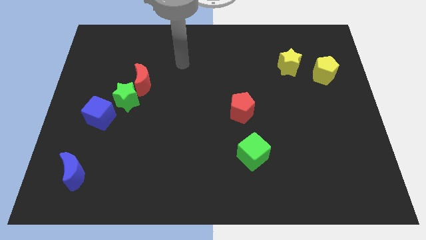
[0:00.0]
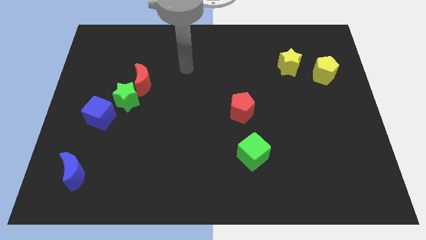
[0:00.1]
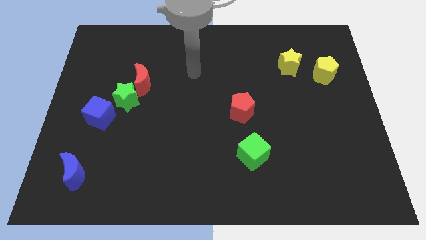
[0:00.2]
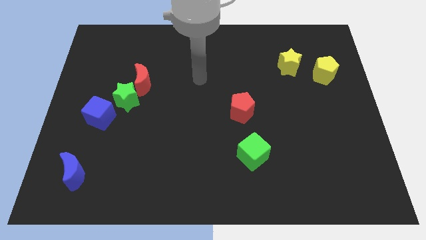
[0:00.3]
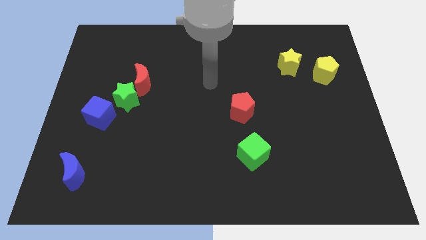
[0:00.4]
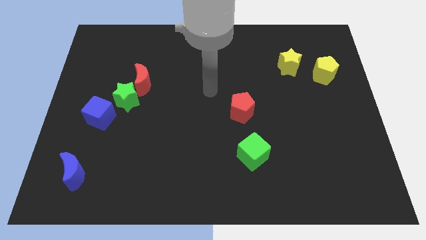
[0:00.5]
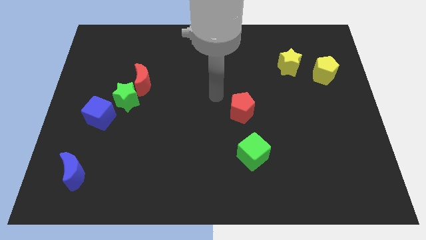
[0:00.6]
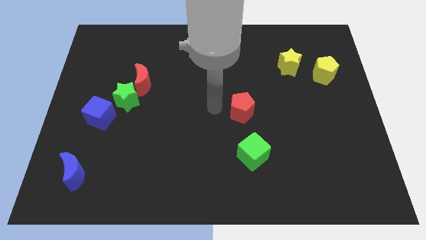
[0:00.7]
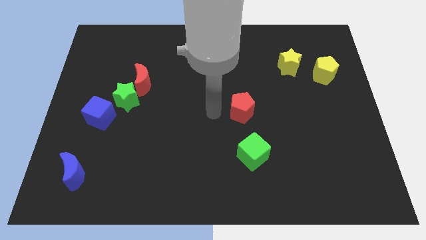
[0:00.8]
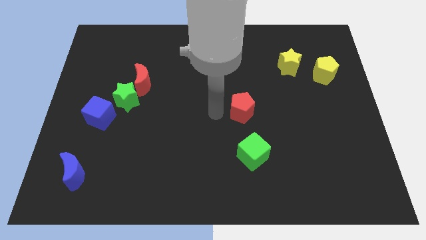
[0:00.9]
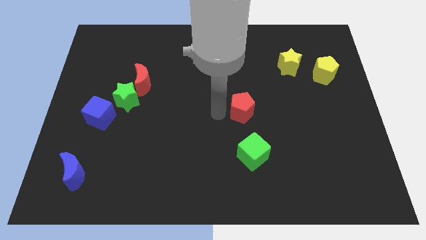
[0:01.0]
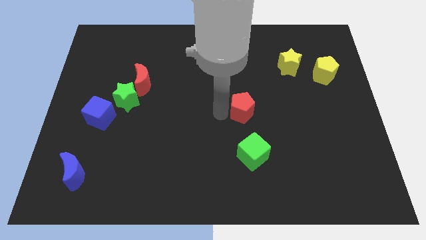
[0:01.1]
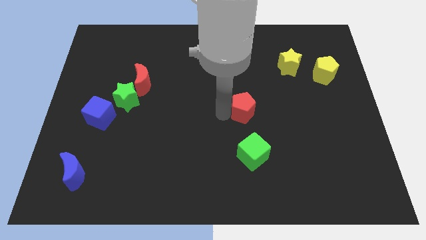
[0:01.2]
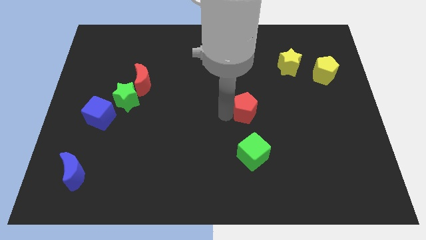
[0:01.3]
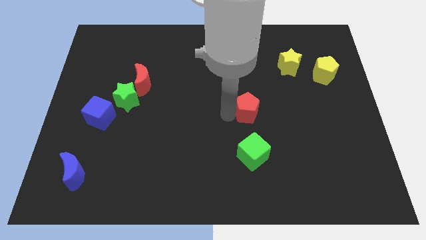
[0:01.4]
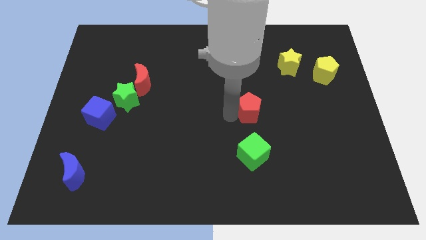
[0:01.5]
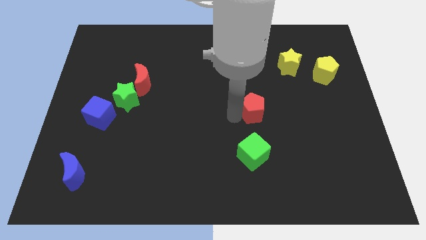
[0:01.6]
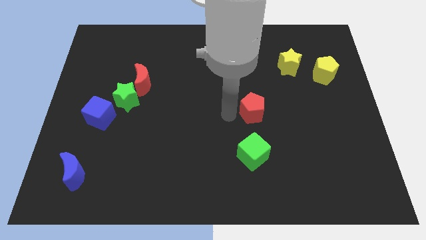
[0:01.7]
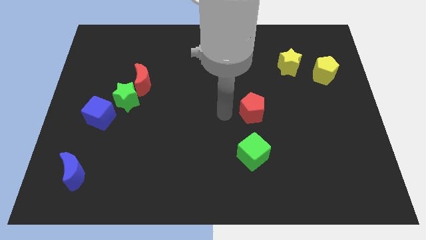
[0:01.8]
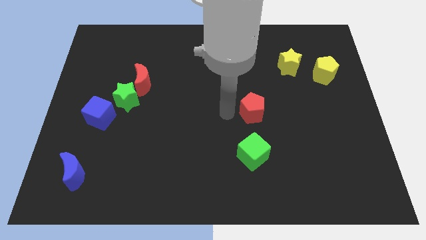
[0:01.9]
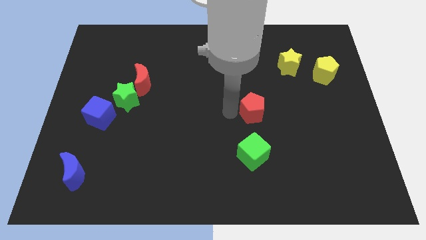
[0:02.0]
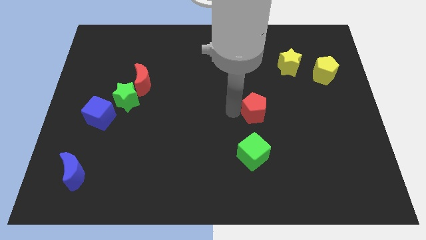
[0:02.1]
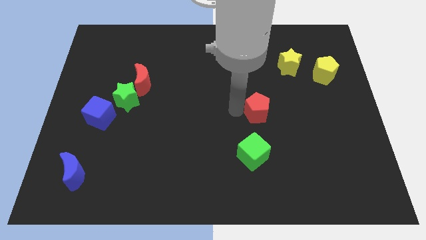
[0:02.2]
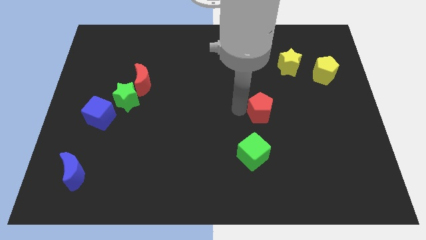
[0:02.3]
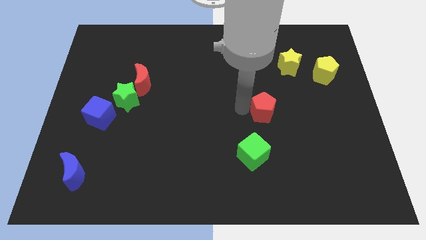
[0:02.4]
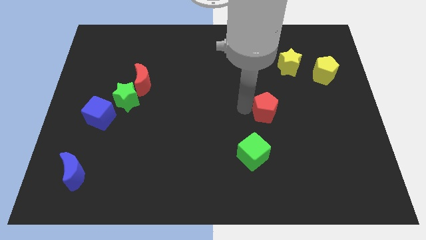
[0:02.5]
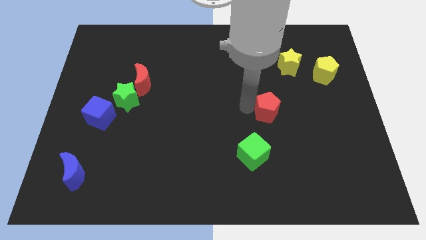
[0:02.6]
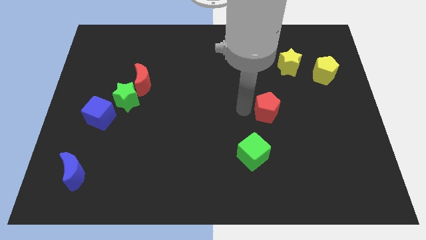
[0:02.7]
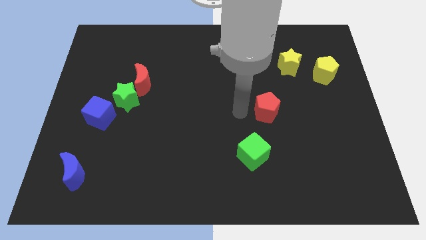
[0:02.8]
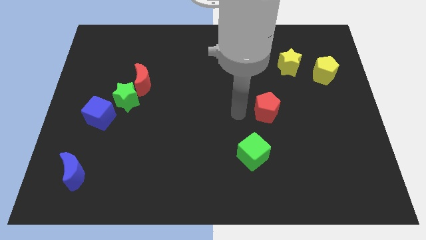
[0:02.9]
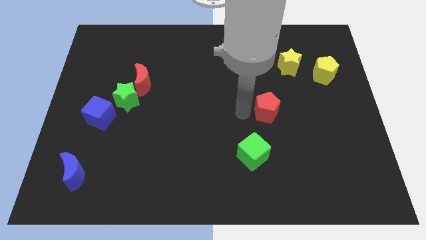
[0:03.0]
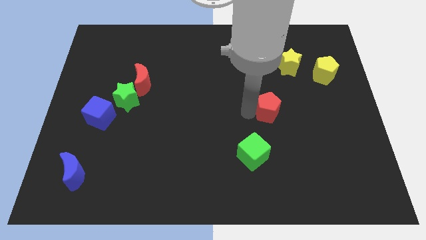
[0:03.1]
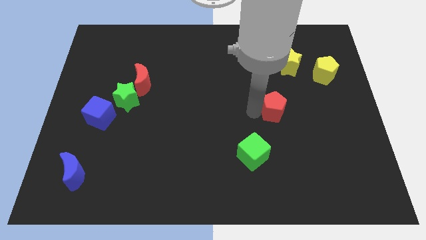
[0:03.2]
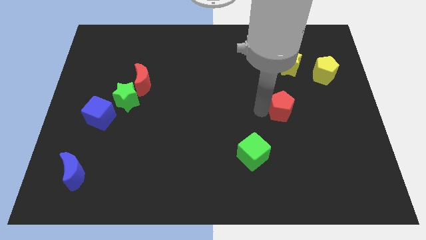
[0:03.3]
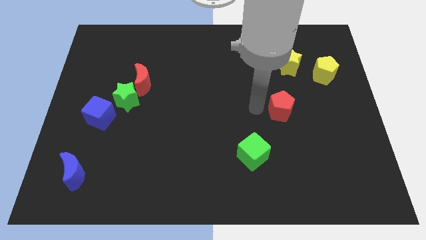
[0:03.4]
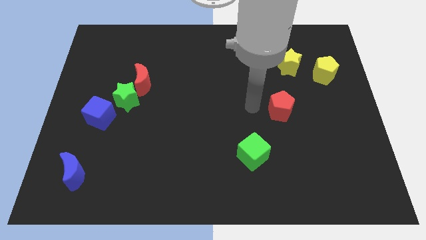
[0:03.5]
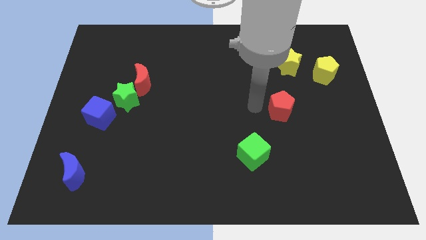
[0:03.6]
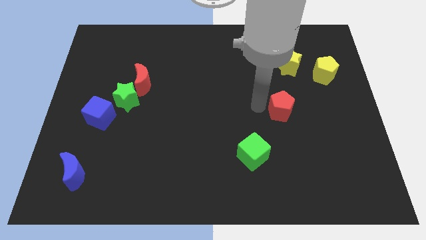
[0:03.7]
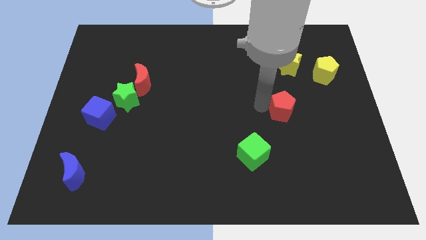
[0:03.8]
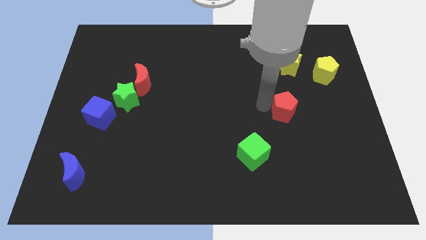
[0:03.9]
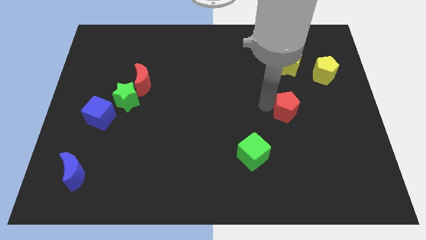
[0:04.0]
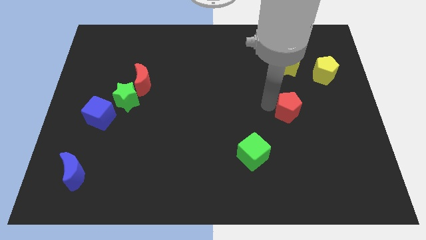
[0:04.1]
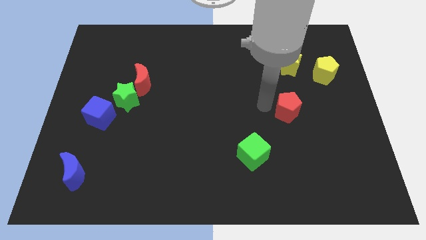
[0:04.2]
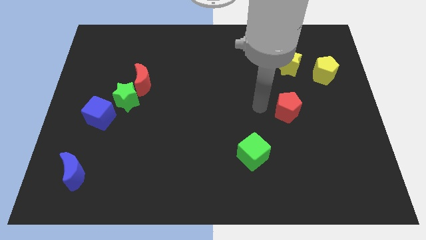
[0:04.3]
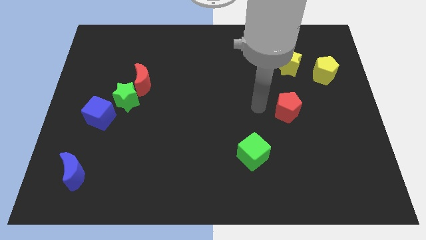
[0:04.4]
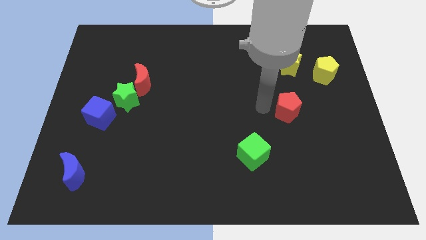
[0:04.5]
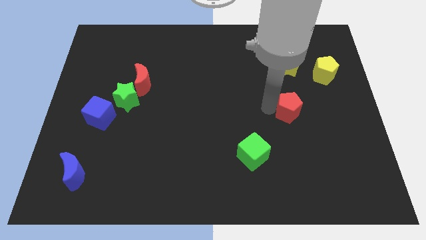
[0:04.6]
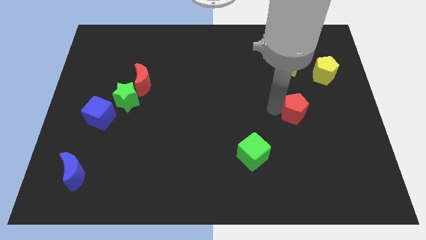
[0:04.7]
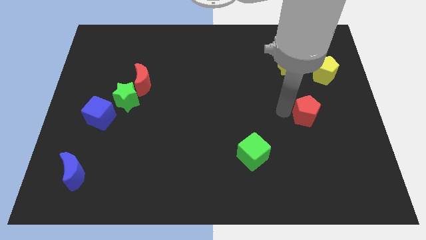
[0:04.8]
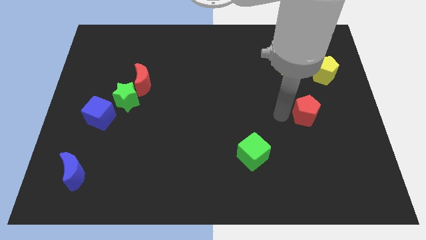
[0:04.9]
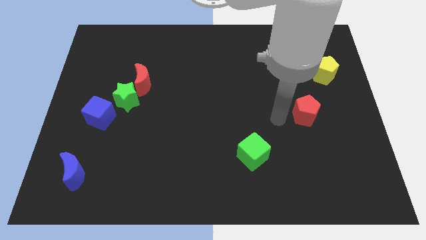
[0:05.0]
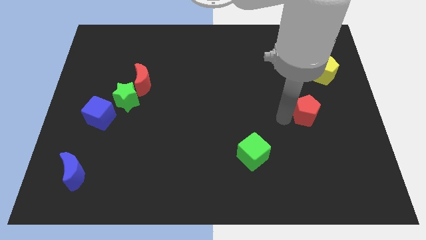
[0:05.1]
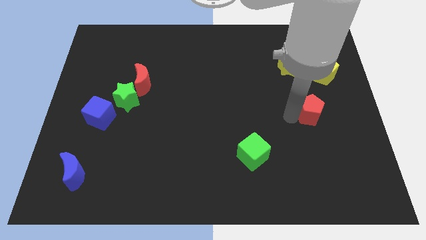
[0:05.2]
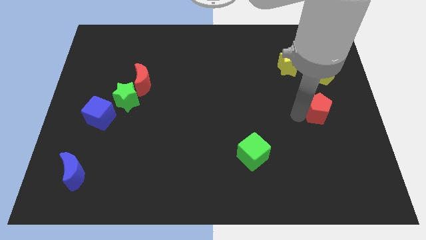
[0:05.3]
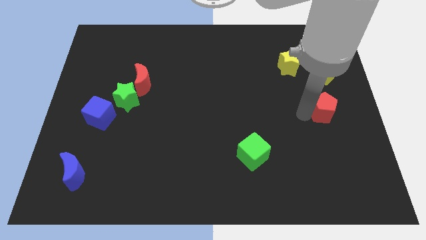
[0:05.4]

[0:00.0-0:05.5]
move the red pentagon to the right side

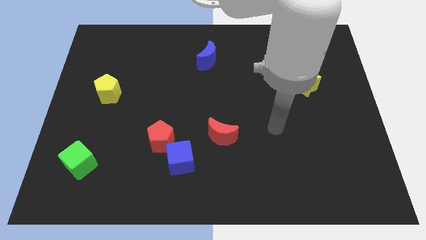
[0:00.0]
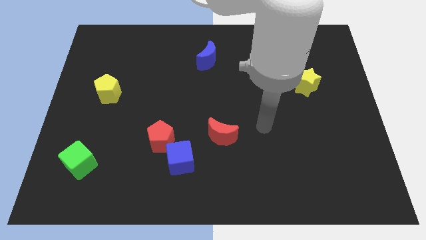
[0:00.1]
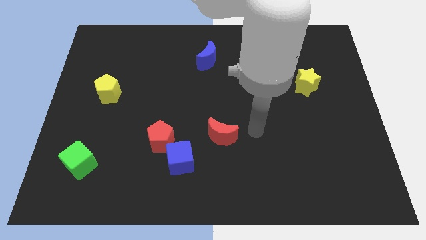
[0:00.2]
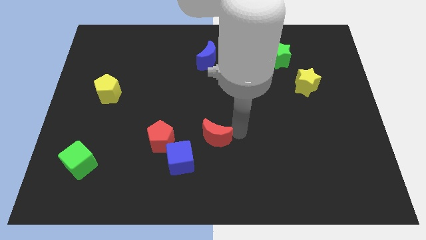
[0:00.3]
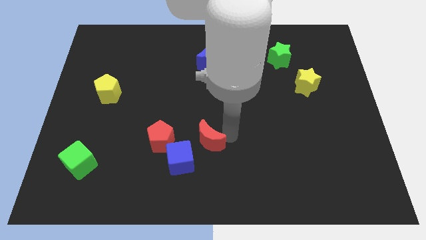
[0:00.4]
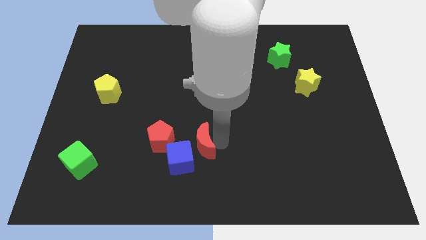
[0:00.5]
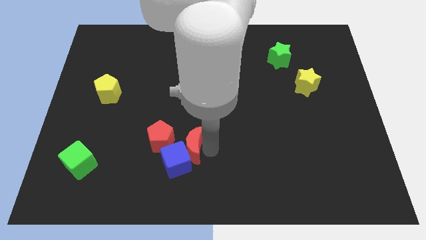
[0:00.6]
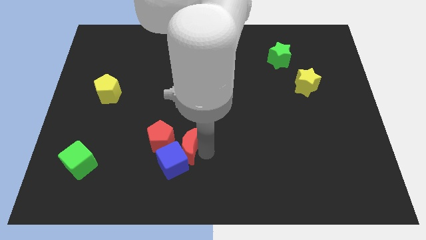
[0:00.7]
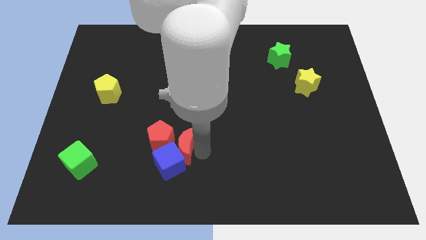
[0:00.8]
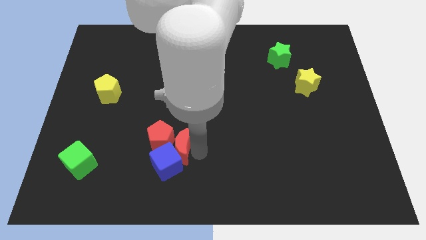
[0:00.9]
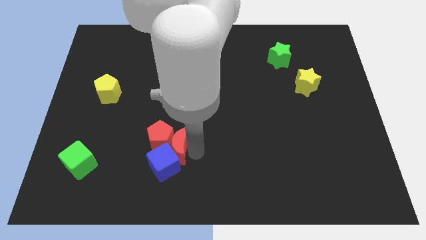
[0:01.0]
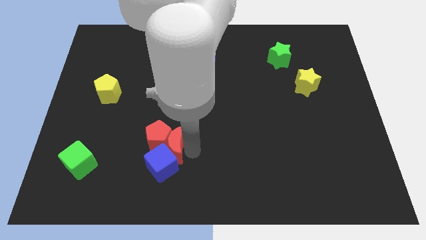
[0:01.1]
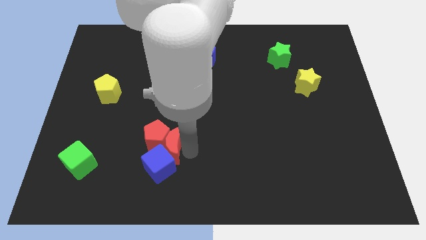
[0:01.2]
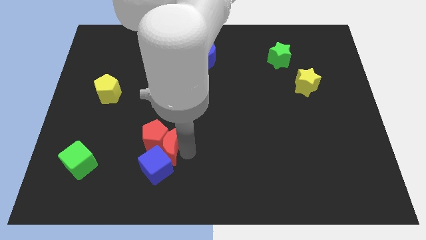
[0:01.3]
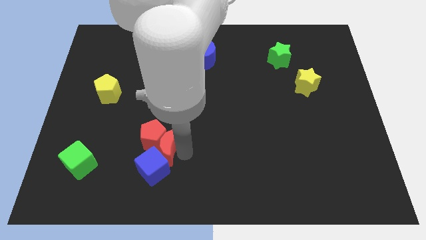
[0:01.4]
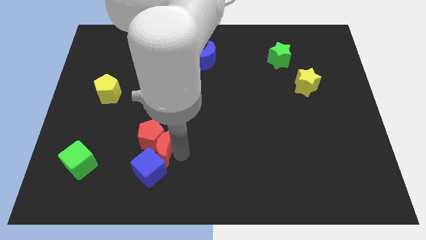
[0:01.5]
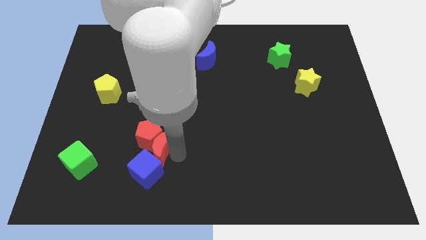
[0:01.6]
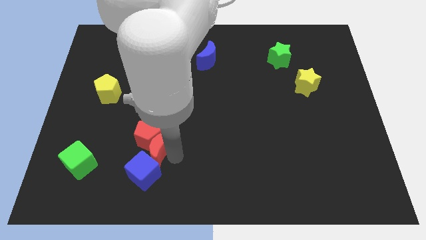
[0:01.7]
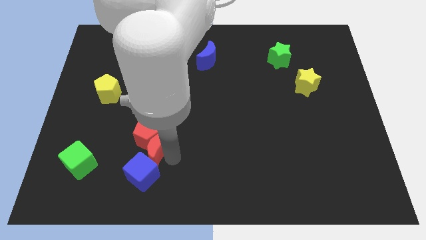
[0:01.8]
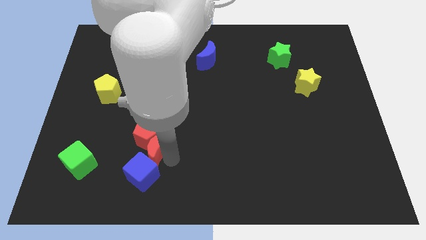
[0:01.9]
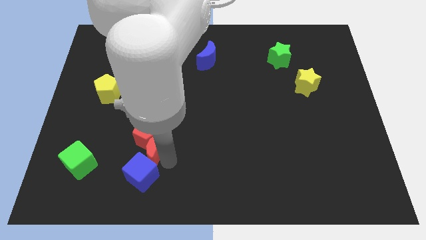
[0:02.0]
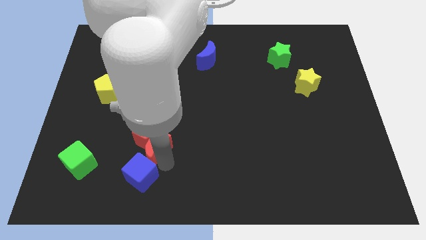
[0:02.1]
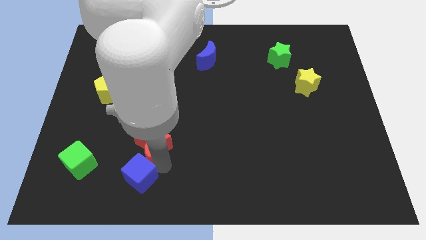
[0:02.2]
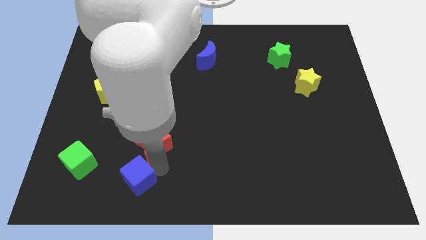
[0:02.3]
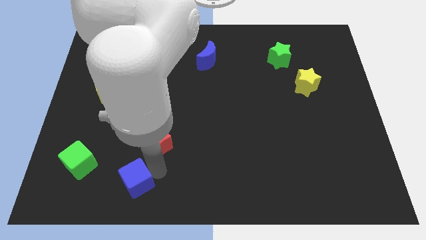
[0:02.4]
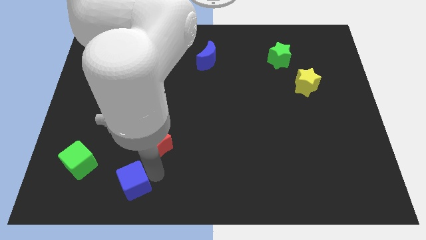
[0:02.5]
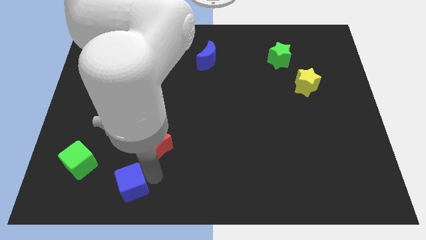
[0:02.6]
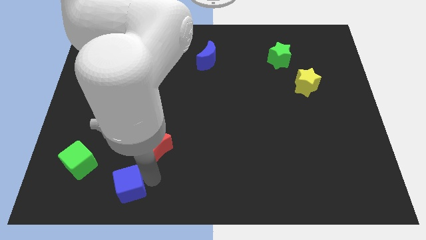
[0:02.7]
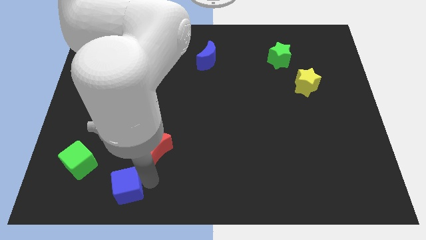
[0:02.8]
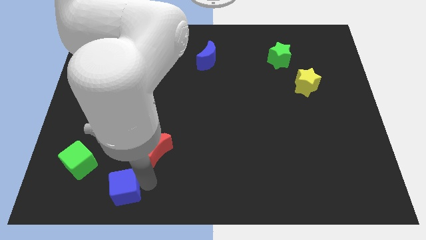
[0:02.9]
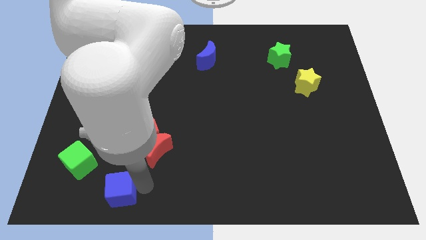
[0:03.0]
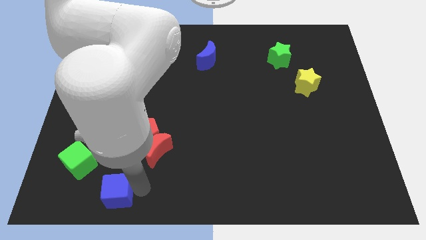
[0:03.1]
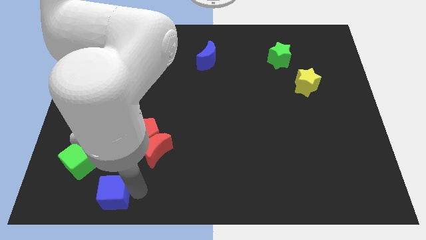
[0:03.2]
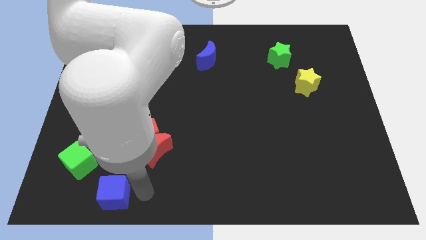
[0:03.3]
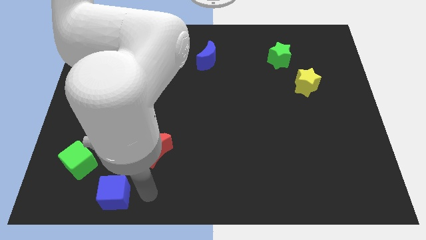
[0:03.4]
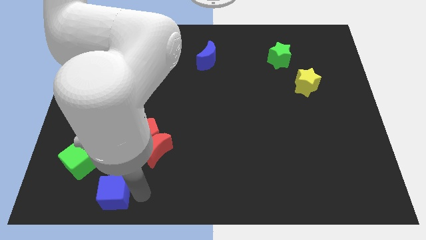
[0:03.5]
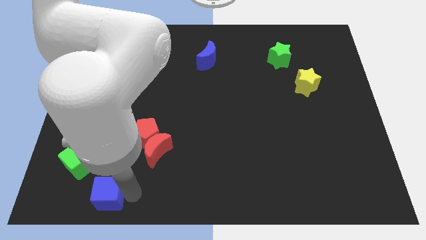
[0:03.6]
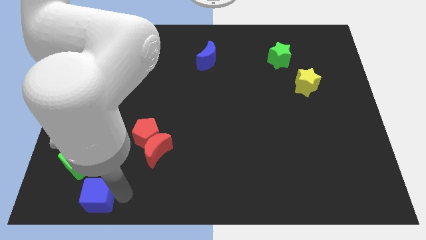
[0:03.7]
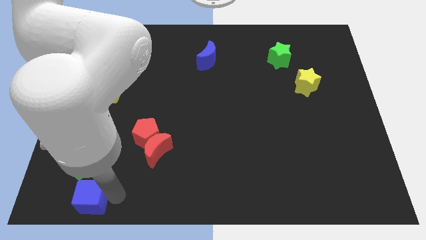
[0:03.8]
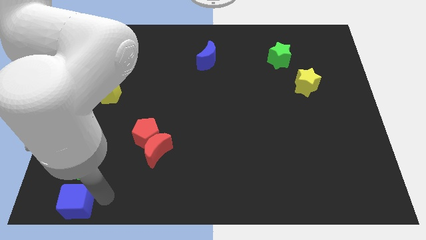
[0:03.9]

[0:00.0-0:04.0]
push the blue cube to the bottom left corner
